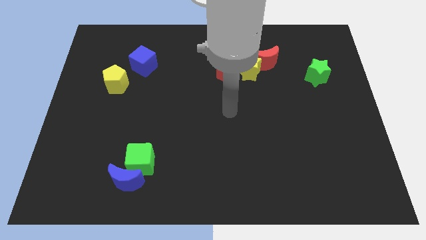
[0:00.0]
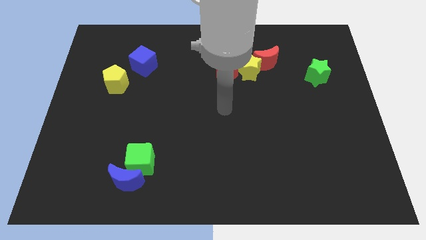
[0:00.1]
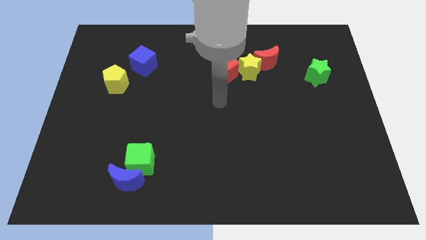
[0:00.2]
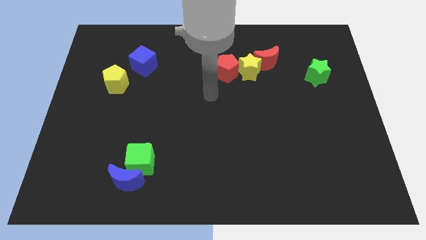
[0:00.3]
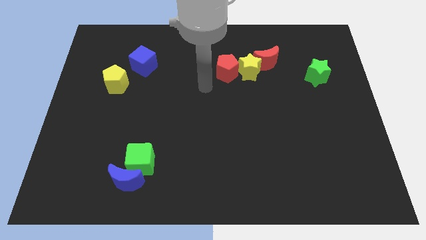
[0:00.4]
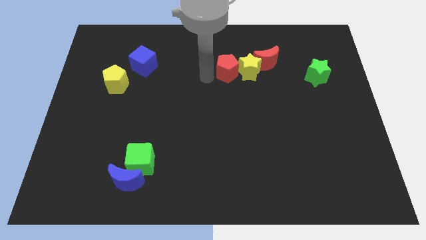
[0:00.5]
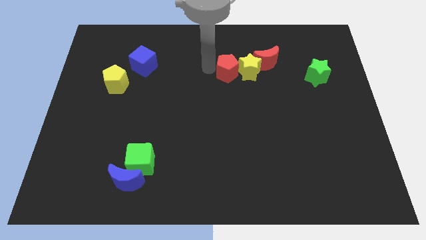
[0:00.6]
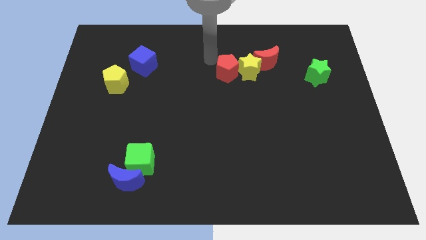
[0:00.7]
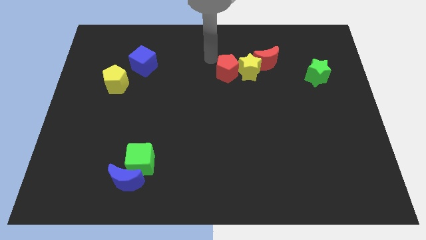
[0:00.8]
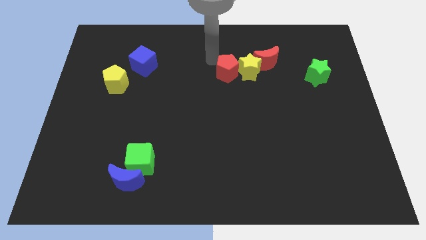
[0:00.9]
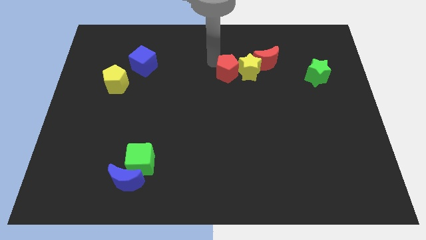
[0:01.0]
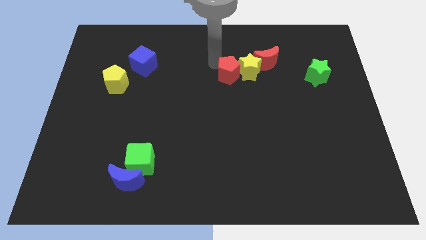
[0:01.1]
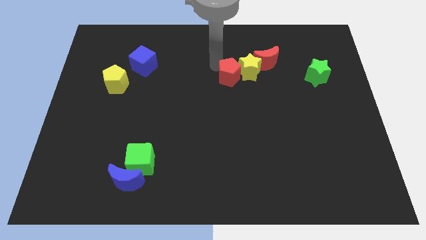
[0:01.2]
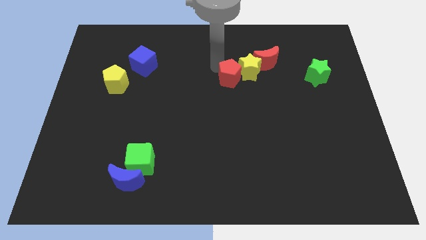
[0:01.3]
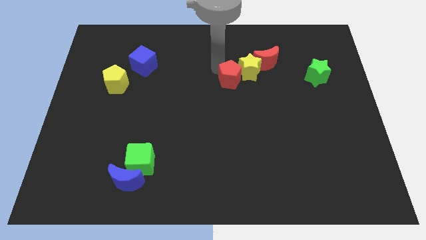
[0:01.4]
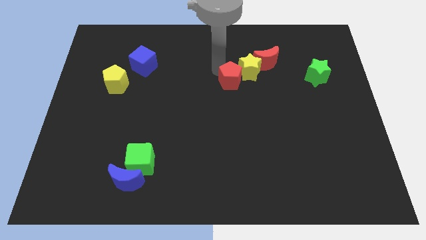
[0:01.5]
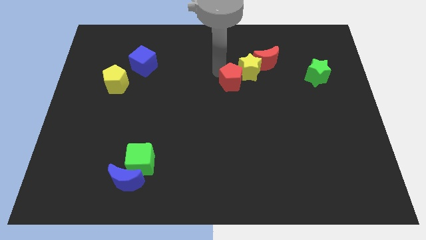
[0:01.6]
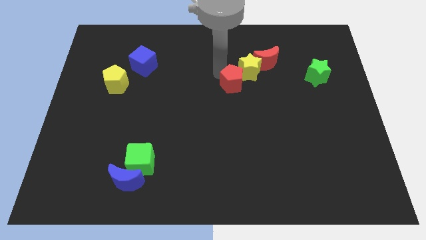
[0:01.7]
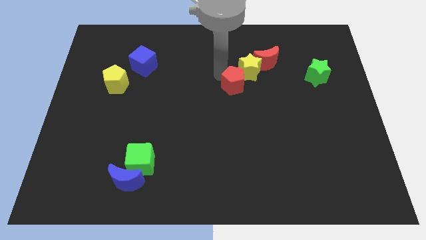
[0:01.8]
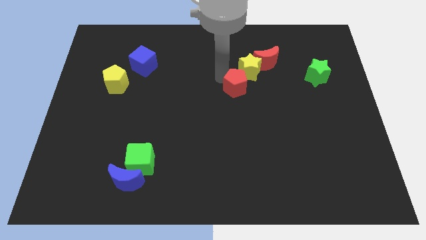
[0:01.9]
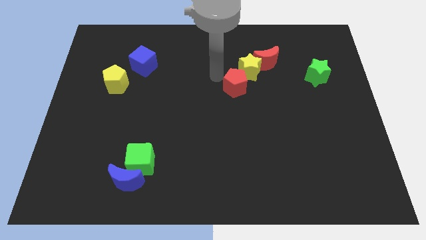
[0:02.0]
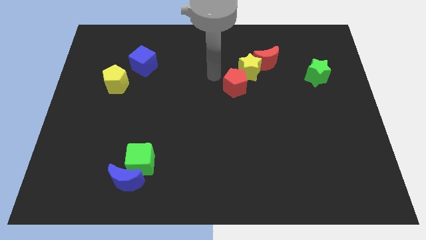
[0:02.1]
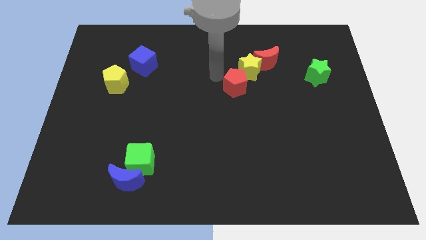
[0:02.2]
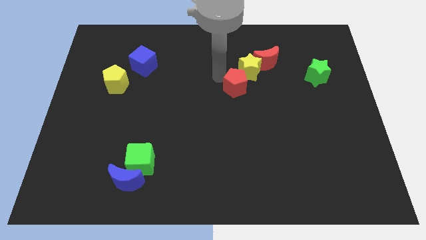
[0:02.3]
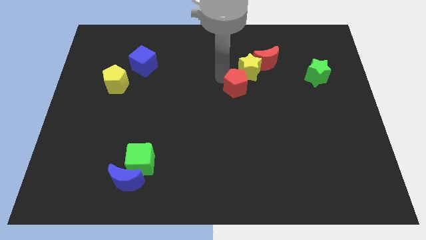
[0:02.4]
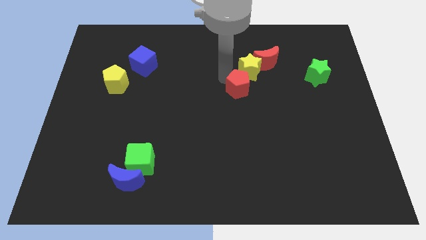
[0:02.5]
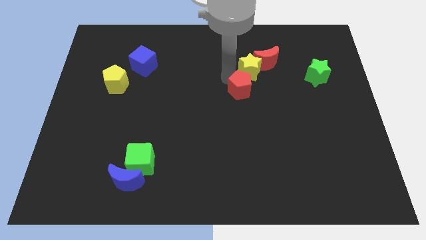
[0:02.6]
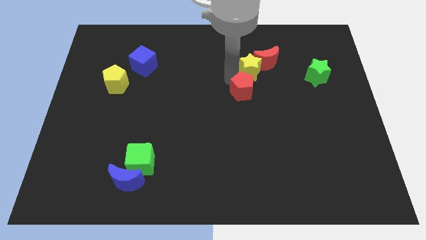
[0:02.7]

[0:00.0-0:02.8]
slide the red pentagon diagonally down and to the right a bit

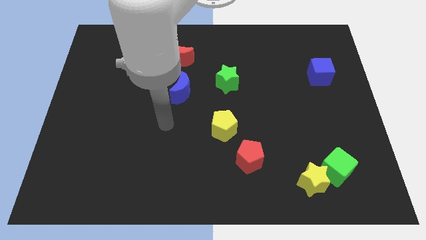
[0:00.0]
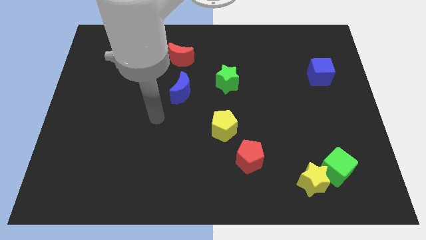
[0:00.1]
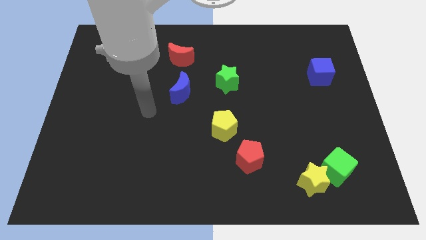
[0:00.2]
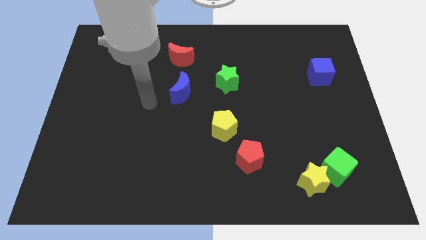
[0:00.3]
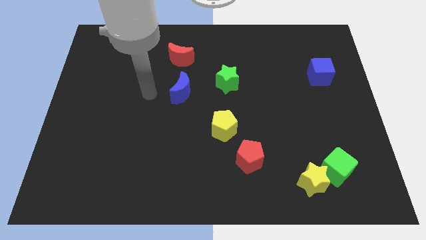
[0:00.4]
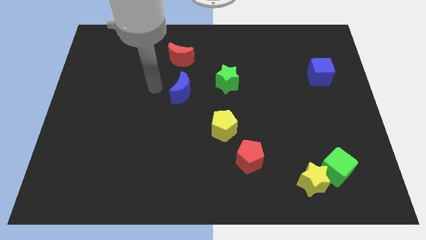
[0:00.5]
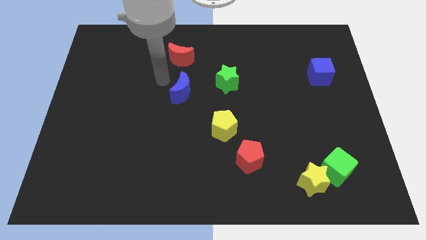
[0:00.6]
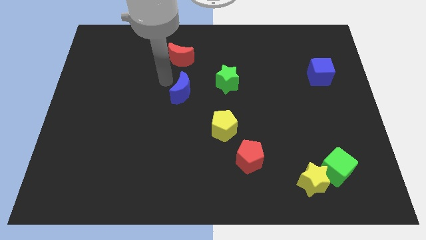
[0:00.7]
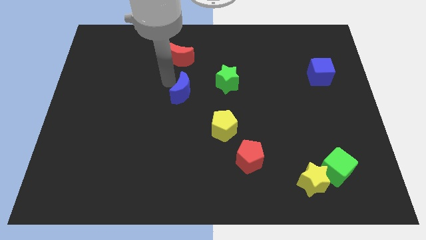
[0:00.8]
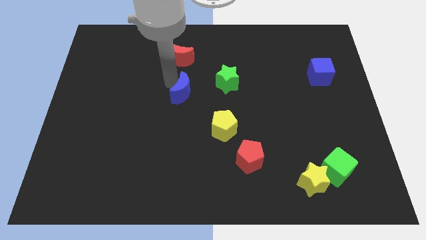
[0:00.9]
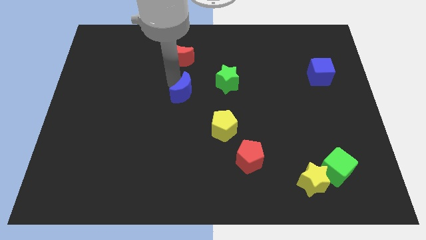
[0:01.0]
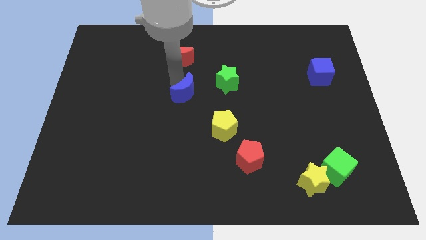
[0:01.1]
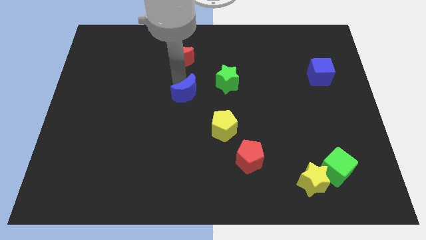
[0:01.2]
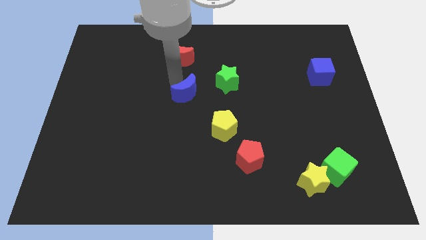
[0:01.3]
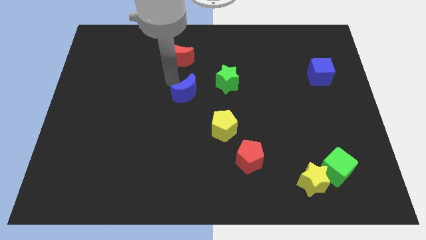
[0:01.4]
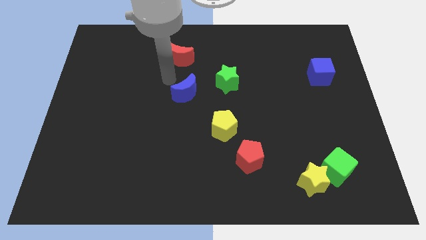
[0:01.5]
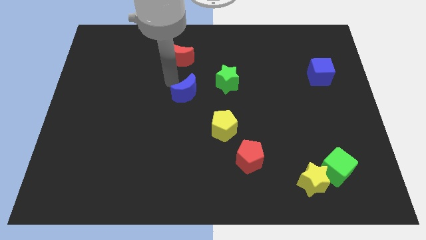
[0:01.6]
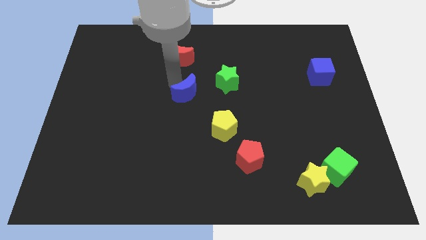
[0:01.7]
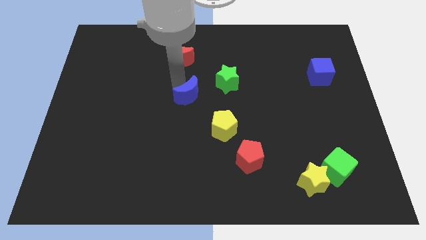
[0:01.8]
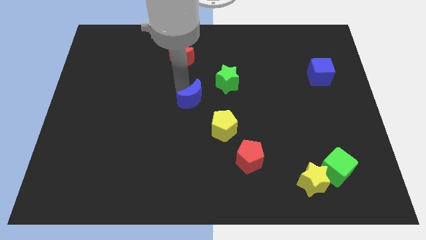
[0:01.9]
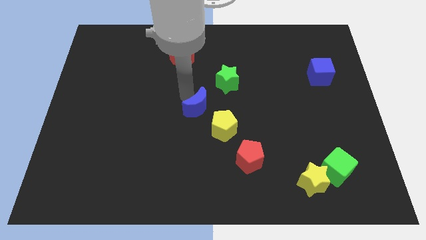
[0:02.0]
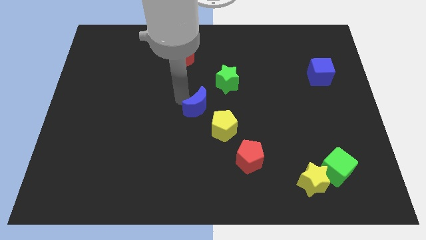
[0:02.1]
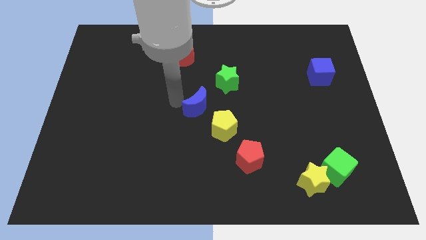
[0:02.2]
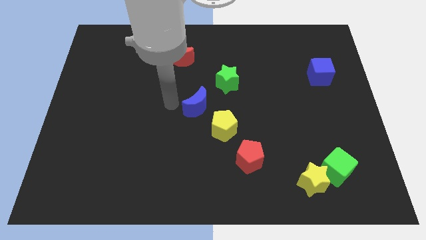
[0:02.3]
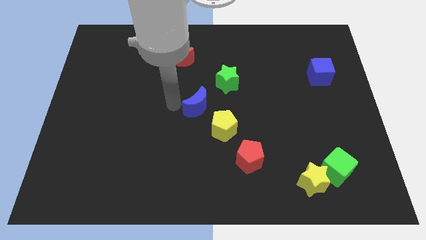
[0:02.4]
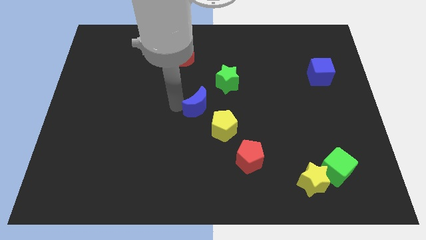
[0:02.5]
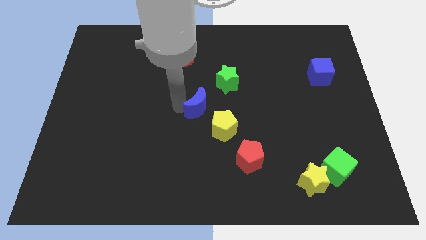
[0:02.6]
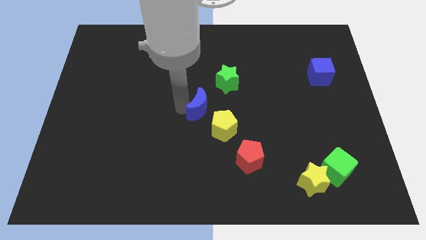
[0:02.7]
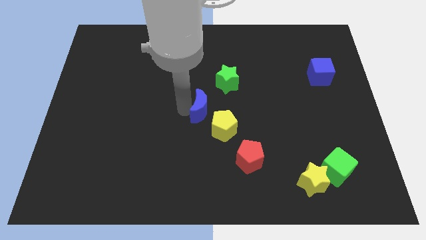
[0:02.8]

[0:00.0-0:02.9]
move the blue moon slightly diagonally downwards and to the right

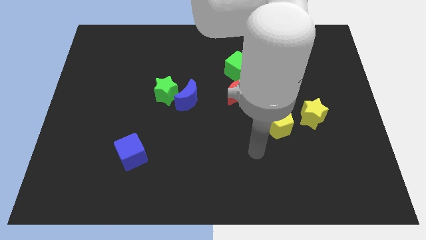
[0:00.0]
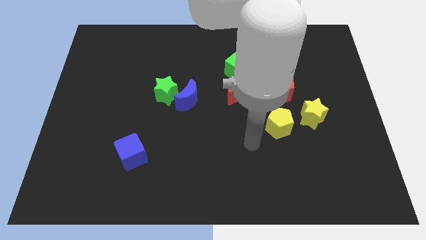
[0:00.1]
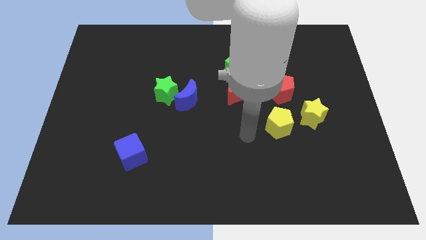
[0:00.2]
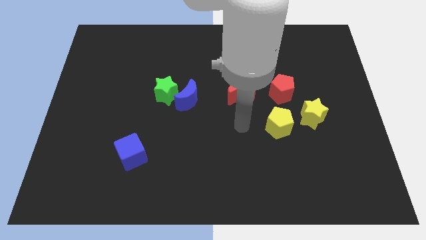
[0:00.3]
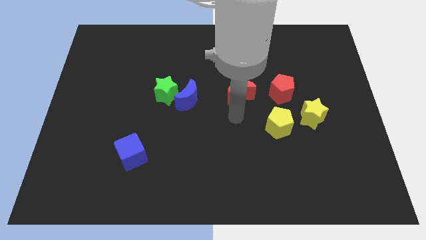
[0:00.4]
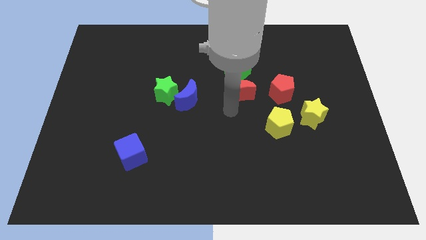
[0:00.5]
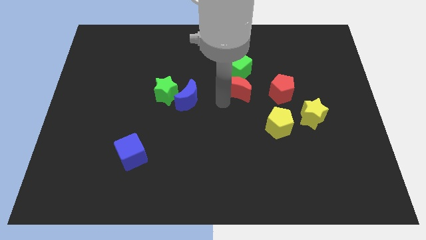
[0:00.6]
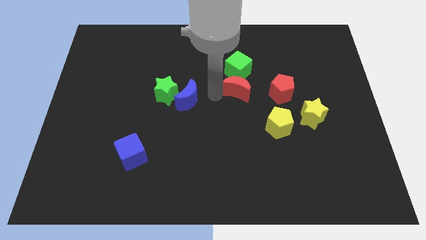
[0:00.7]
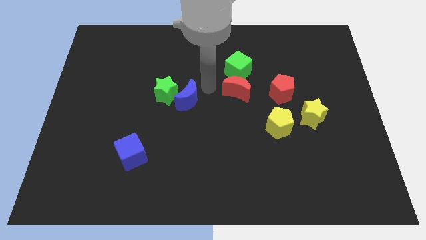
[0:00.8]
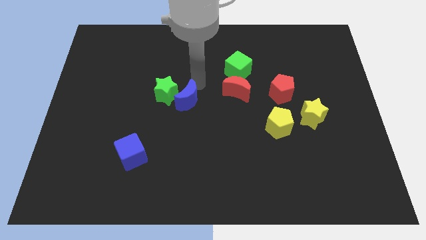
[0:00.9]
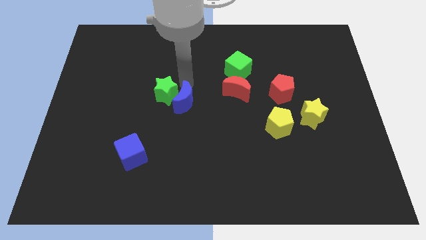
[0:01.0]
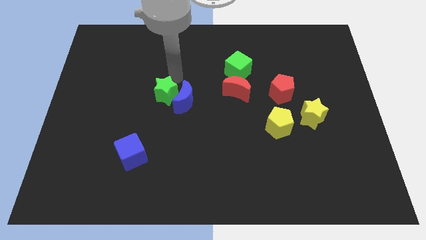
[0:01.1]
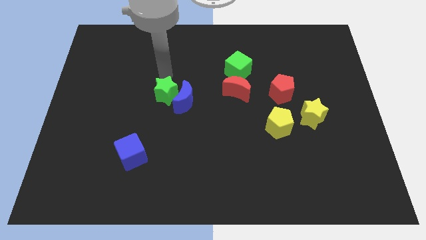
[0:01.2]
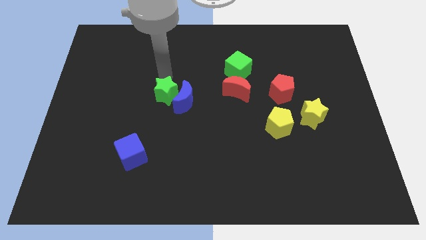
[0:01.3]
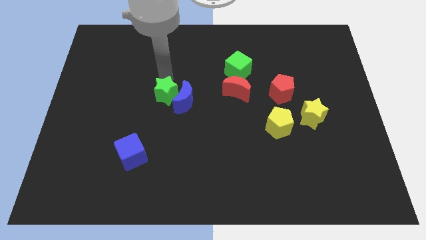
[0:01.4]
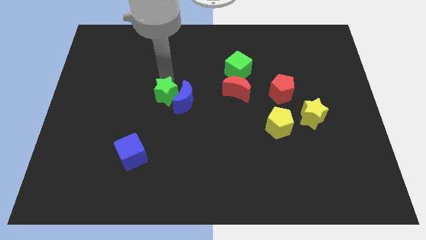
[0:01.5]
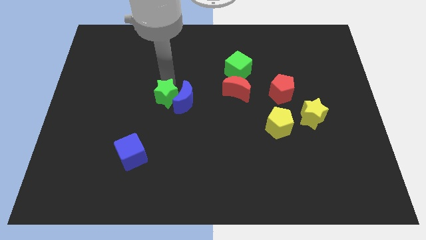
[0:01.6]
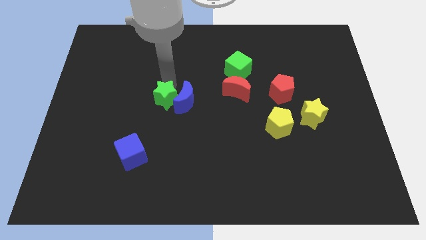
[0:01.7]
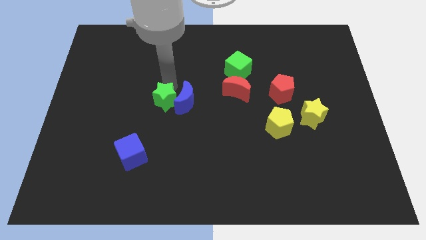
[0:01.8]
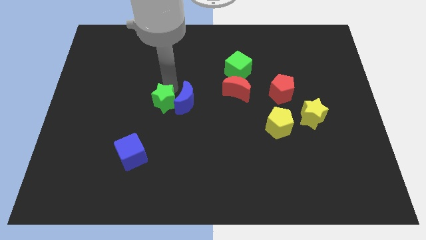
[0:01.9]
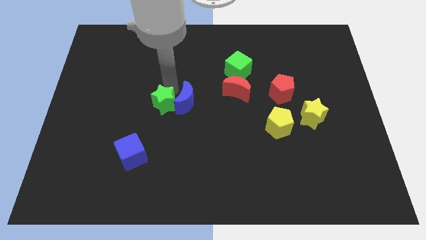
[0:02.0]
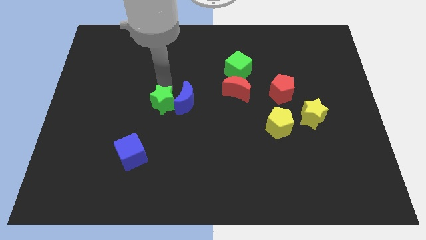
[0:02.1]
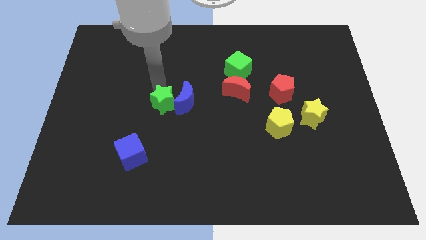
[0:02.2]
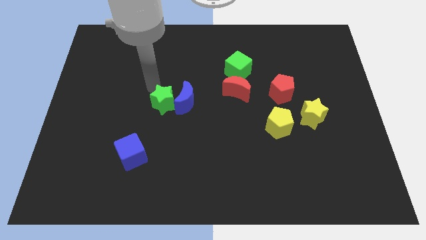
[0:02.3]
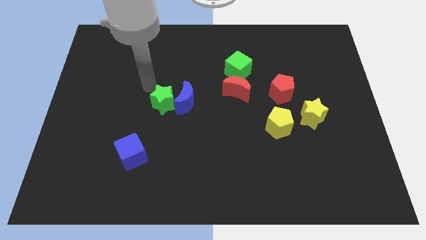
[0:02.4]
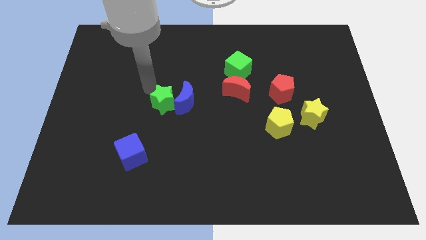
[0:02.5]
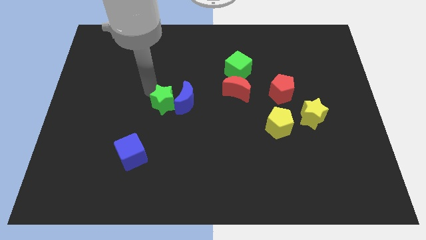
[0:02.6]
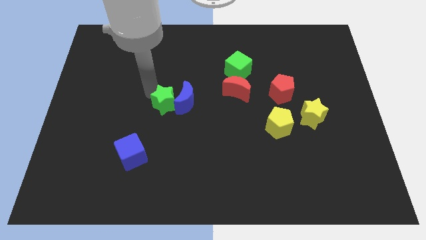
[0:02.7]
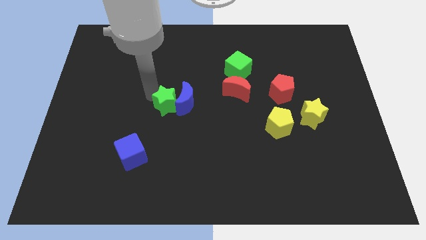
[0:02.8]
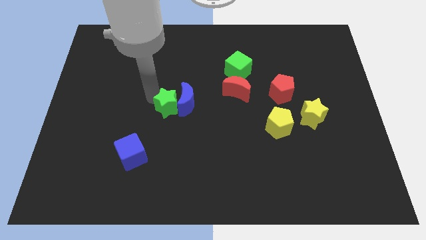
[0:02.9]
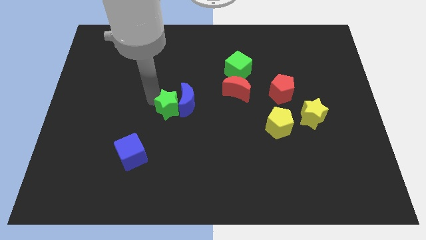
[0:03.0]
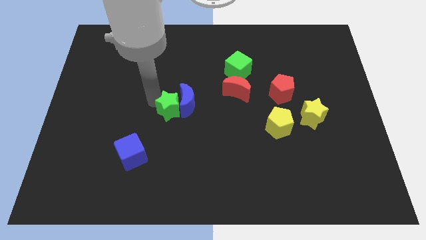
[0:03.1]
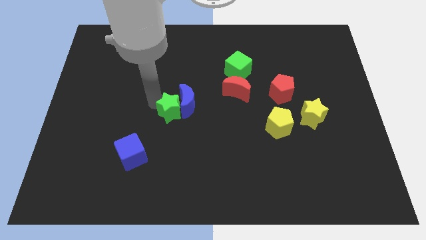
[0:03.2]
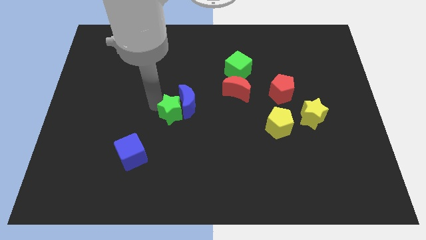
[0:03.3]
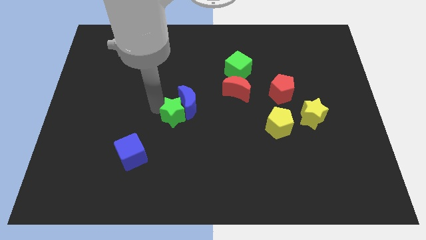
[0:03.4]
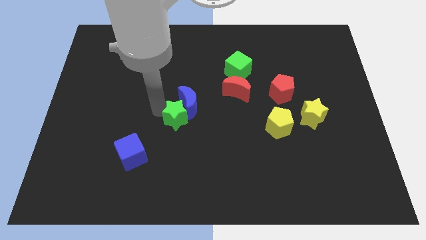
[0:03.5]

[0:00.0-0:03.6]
push the green star a little down and then to the right
